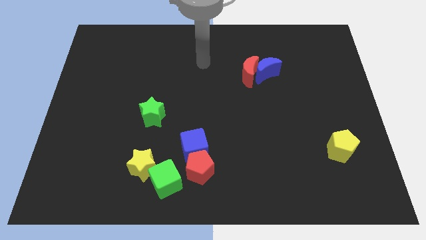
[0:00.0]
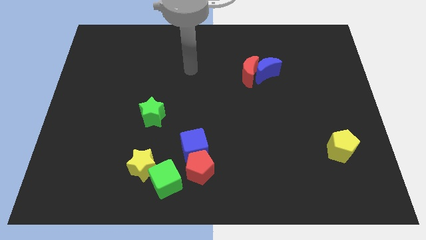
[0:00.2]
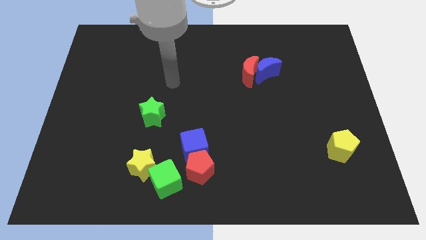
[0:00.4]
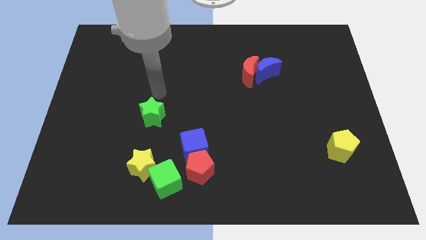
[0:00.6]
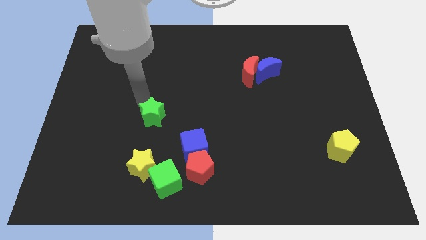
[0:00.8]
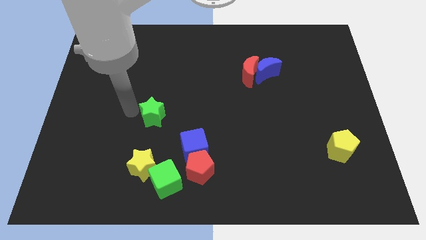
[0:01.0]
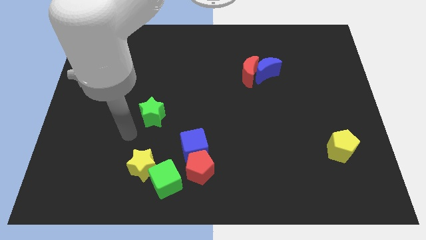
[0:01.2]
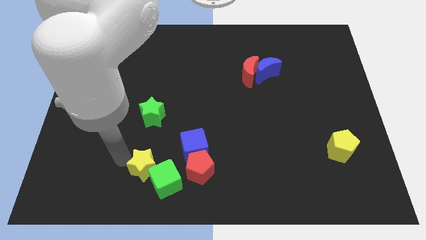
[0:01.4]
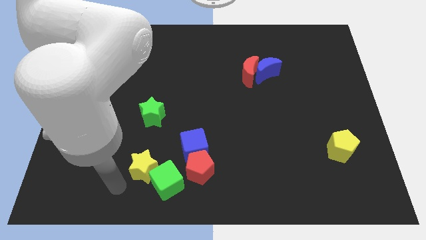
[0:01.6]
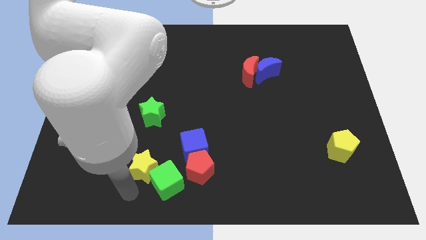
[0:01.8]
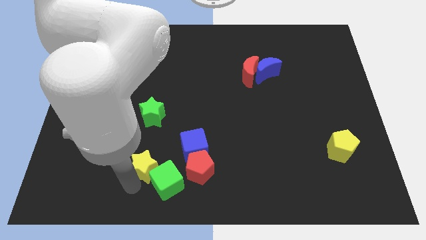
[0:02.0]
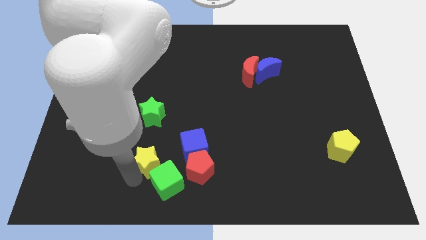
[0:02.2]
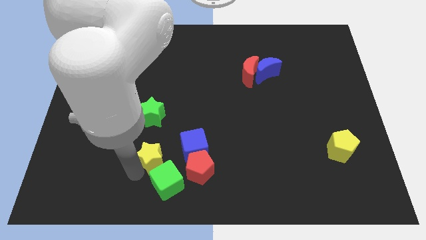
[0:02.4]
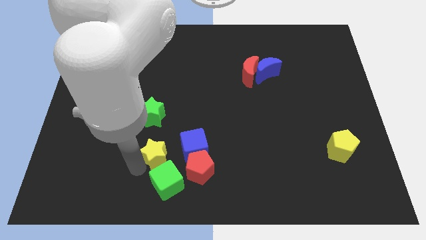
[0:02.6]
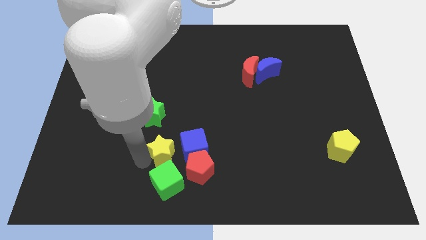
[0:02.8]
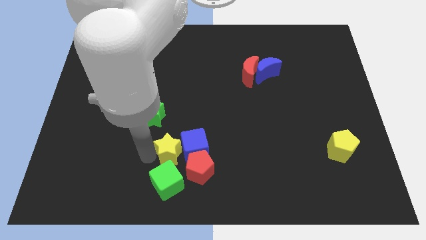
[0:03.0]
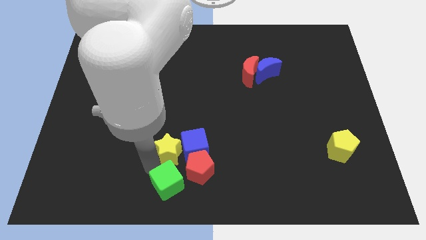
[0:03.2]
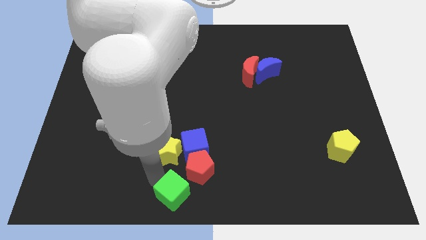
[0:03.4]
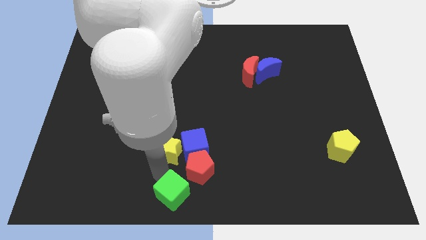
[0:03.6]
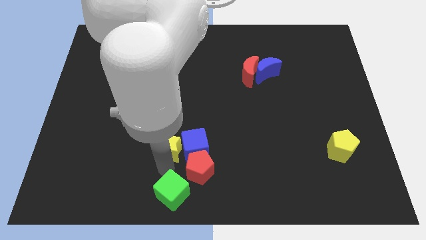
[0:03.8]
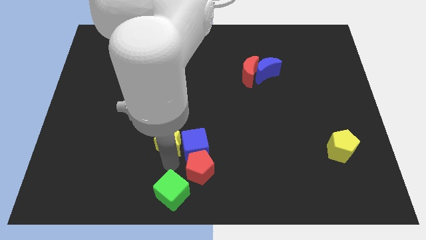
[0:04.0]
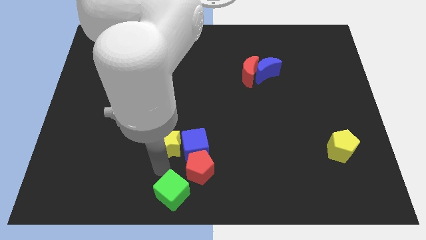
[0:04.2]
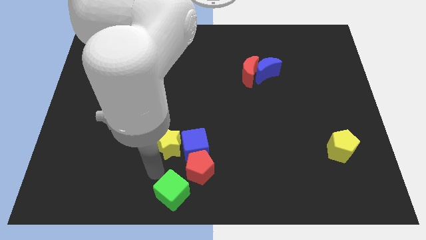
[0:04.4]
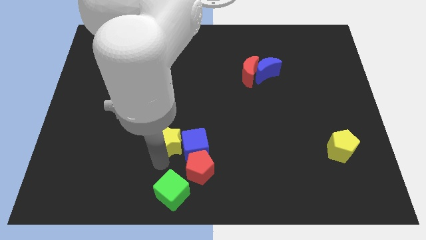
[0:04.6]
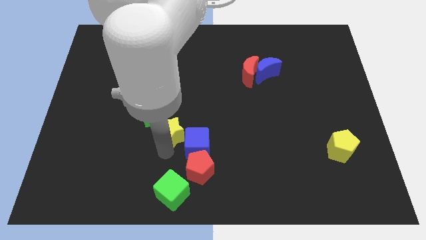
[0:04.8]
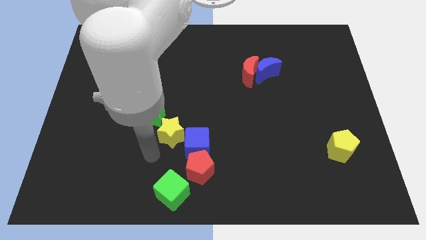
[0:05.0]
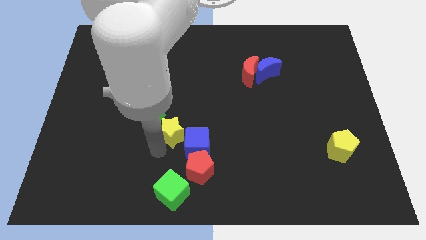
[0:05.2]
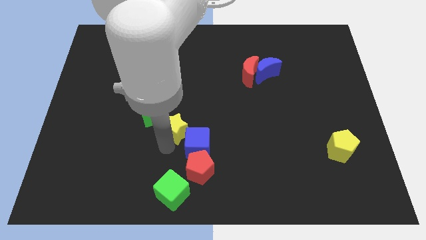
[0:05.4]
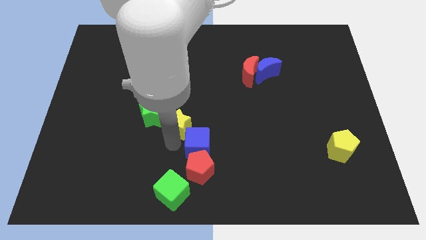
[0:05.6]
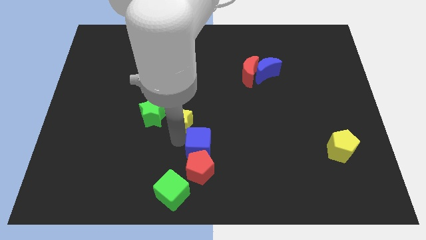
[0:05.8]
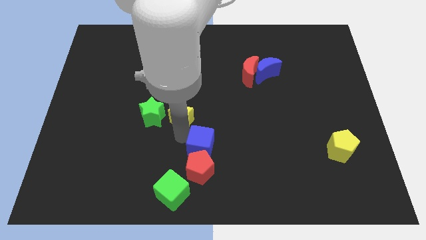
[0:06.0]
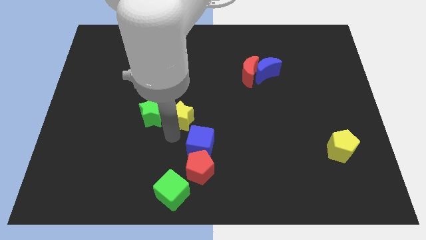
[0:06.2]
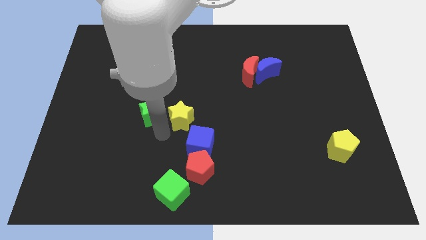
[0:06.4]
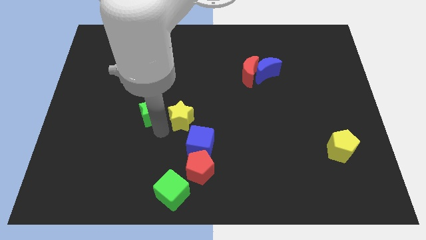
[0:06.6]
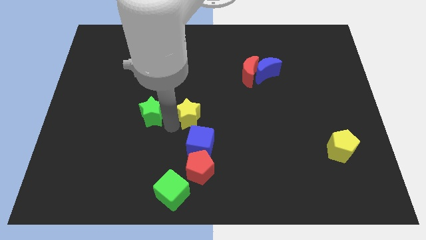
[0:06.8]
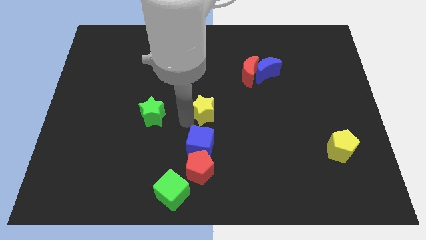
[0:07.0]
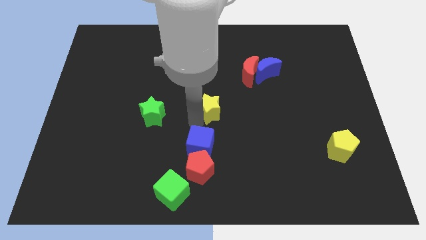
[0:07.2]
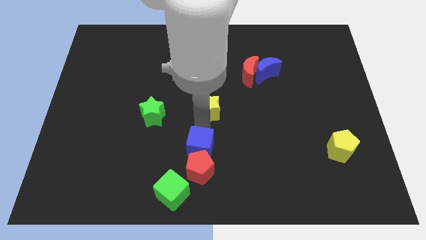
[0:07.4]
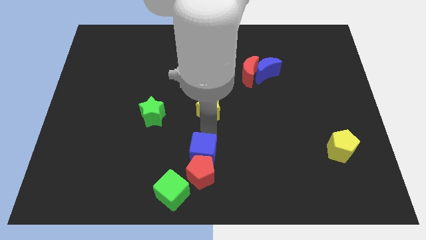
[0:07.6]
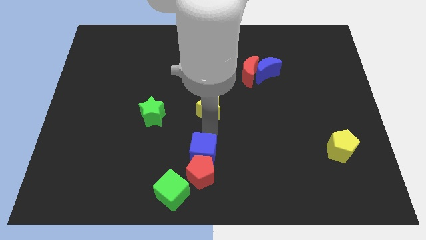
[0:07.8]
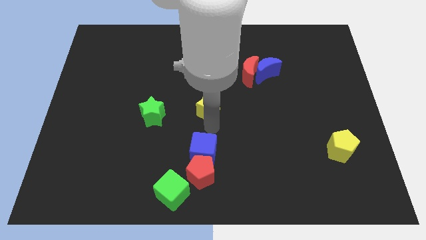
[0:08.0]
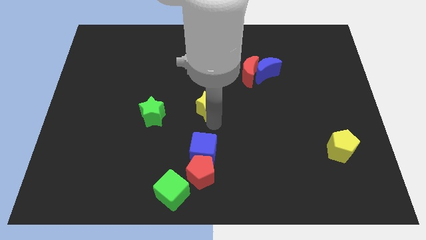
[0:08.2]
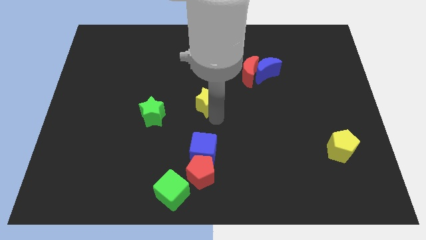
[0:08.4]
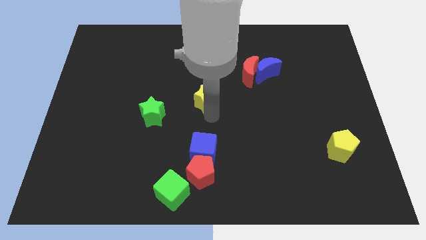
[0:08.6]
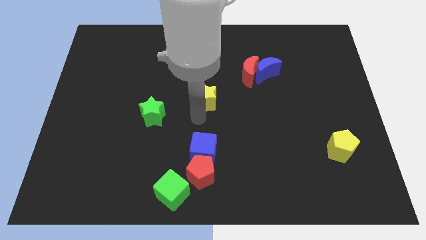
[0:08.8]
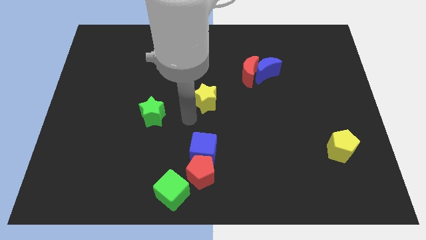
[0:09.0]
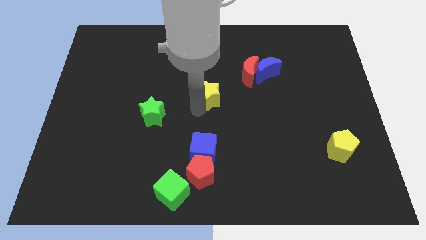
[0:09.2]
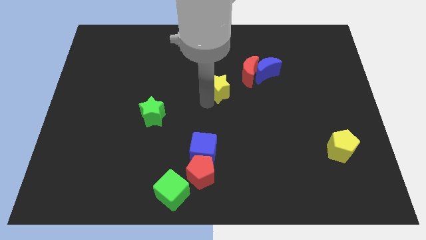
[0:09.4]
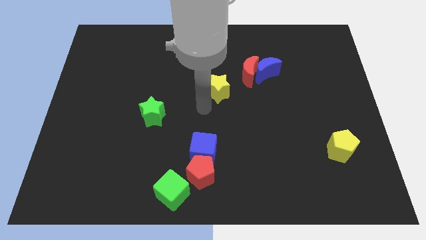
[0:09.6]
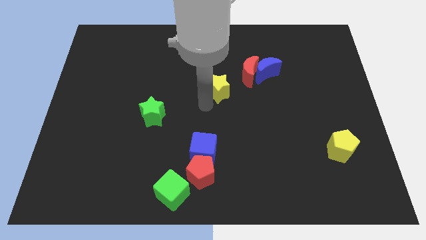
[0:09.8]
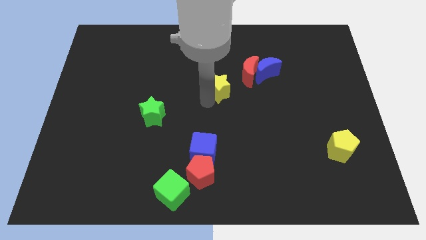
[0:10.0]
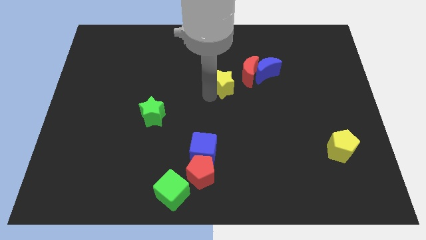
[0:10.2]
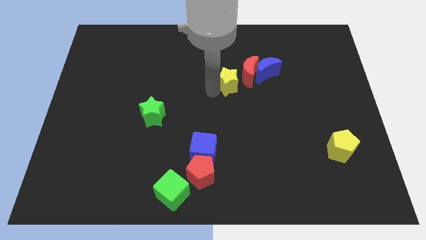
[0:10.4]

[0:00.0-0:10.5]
slide the yellow star to the red moon

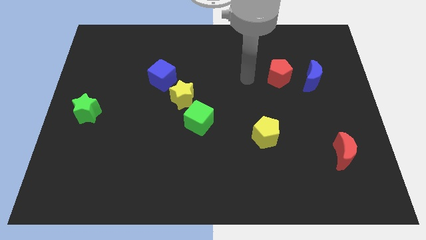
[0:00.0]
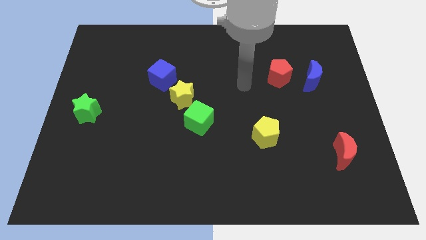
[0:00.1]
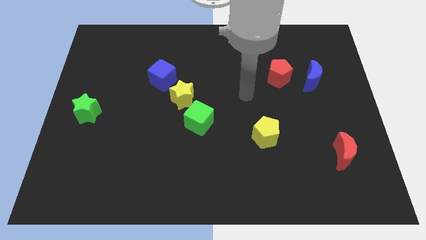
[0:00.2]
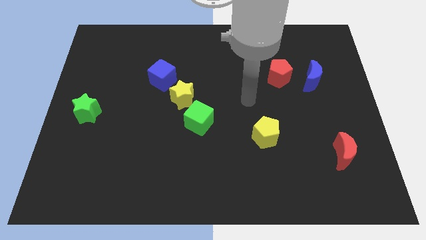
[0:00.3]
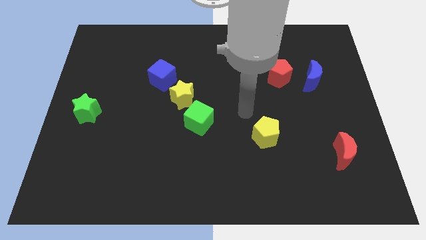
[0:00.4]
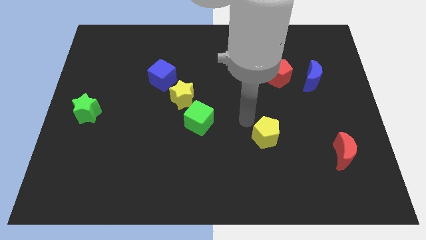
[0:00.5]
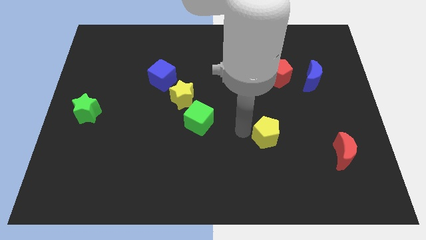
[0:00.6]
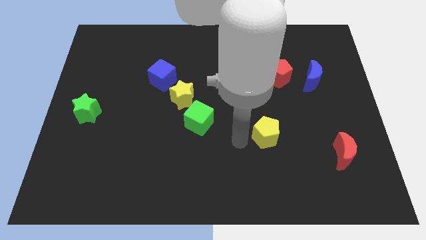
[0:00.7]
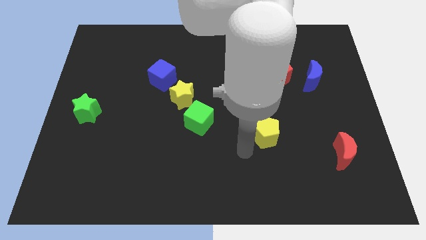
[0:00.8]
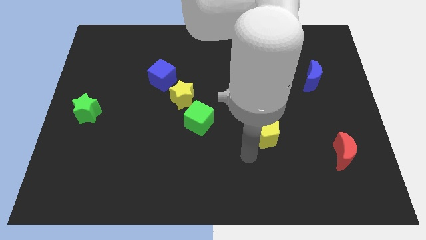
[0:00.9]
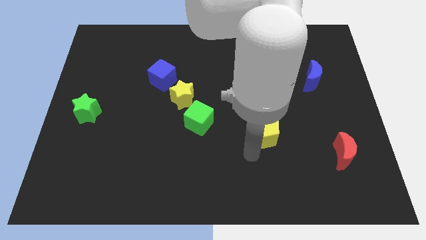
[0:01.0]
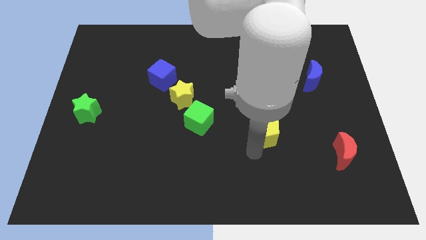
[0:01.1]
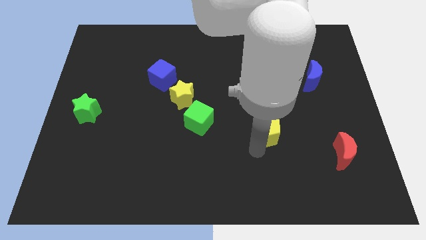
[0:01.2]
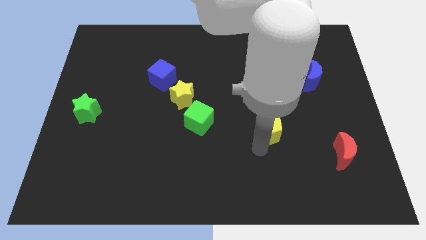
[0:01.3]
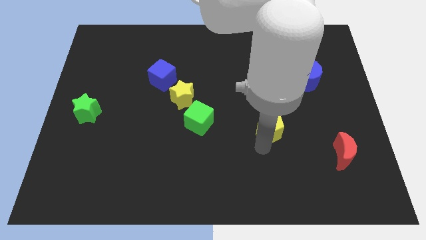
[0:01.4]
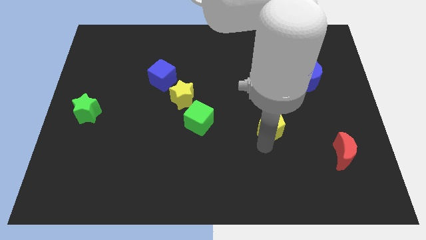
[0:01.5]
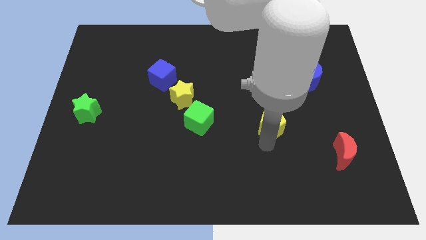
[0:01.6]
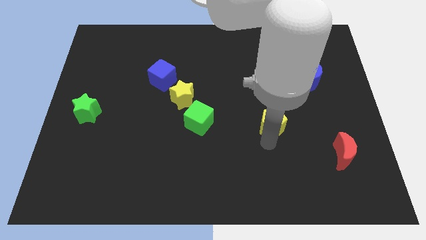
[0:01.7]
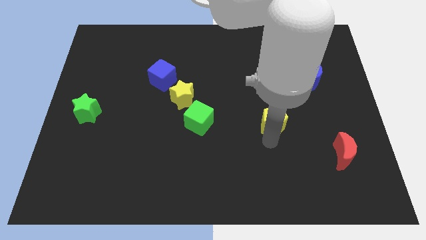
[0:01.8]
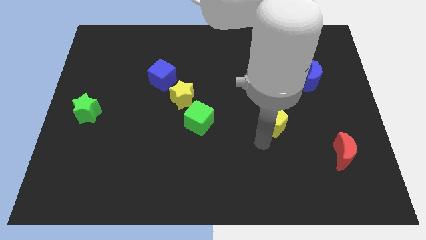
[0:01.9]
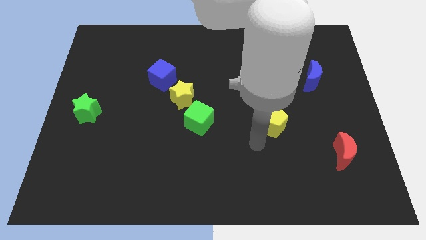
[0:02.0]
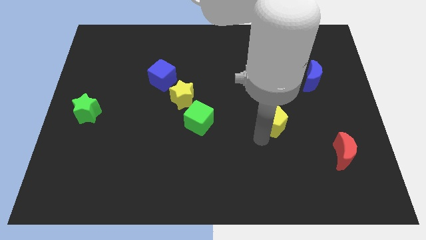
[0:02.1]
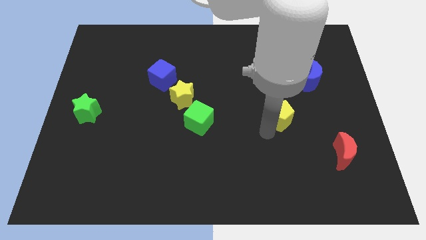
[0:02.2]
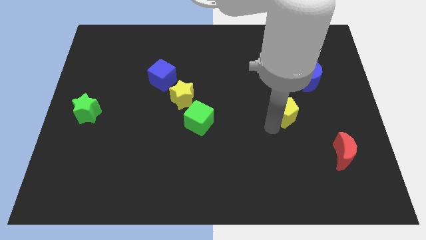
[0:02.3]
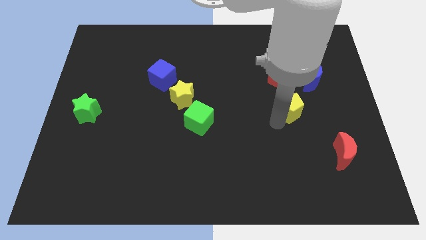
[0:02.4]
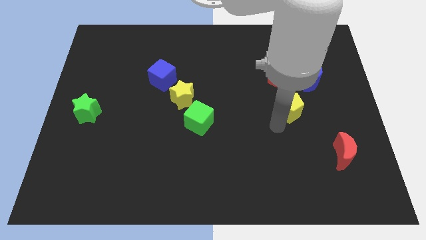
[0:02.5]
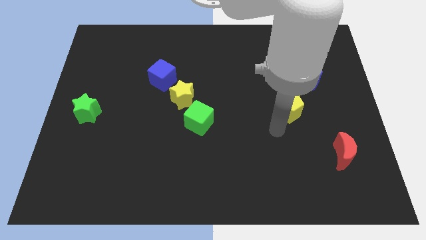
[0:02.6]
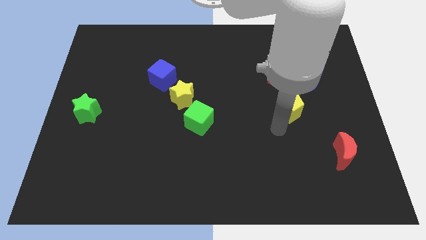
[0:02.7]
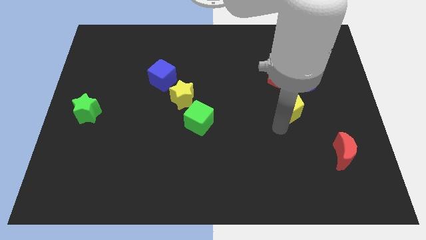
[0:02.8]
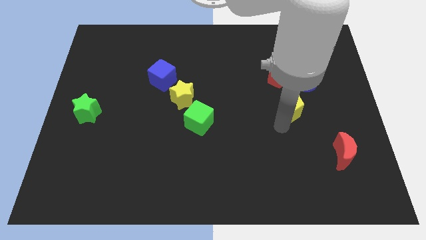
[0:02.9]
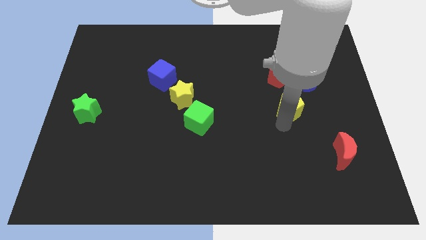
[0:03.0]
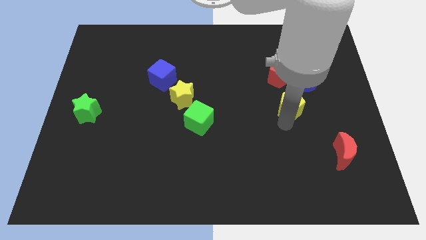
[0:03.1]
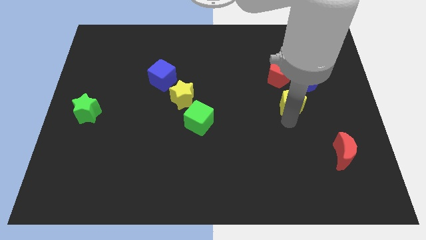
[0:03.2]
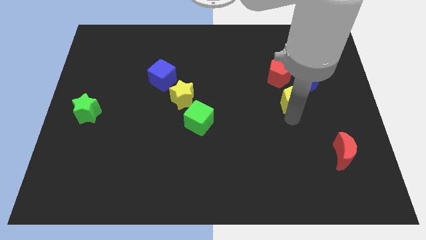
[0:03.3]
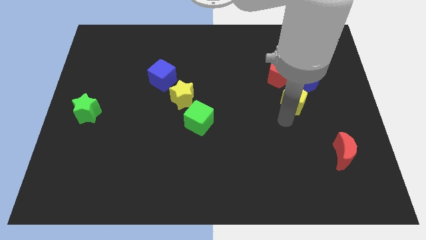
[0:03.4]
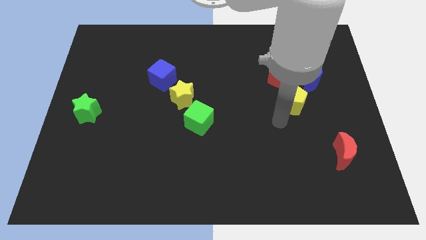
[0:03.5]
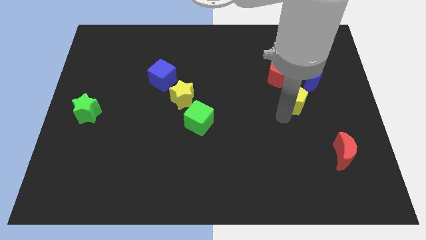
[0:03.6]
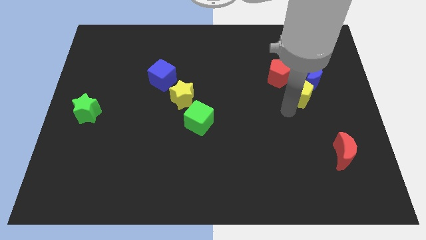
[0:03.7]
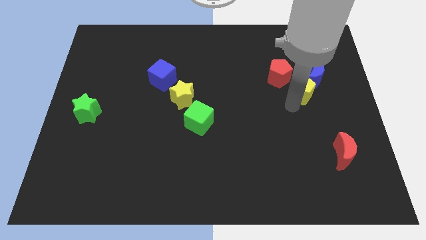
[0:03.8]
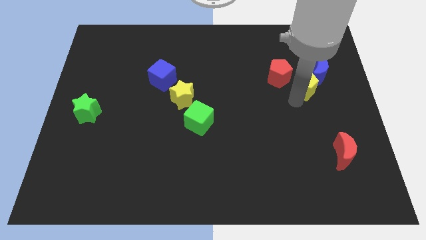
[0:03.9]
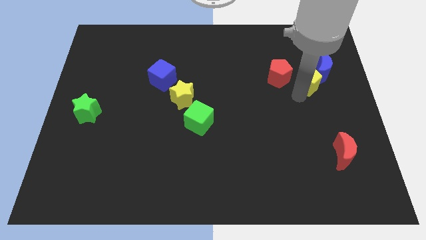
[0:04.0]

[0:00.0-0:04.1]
move the yellow pentagon close to the blue moon
